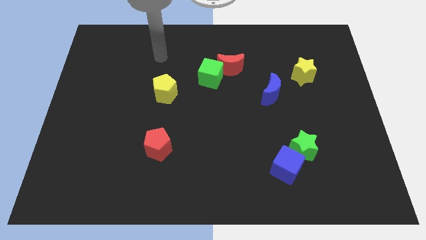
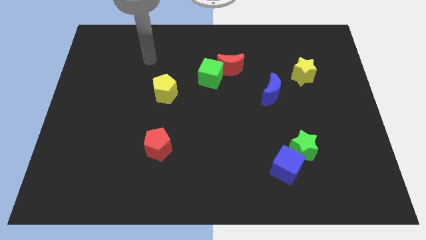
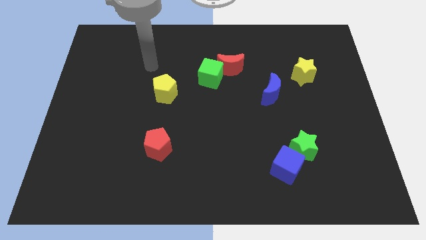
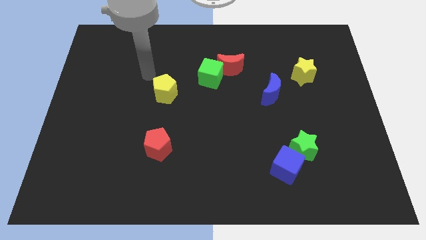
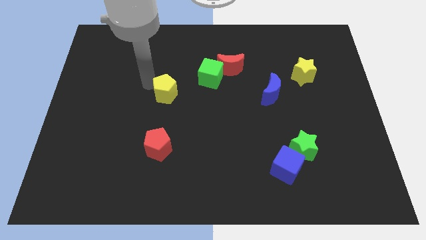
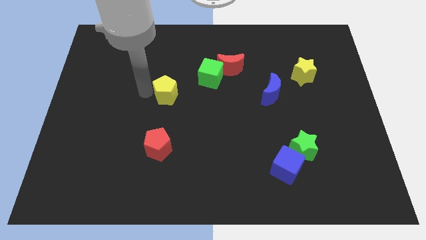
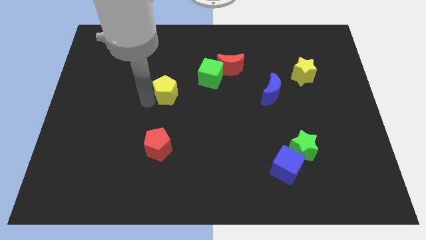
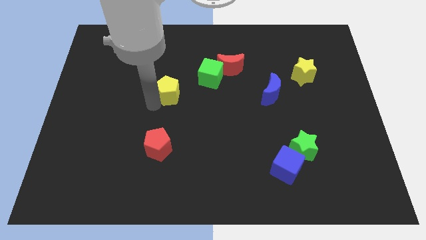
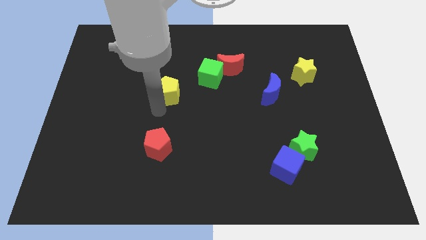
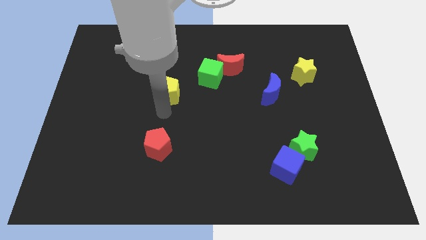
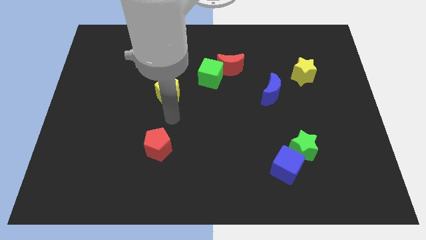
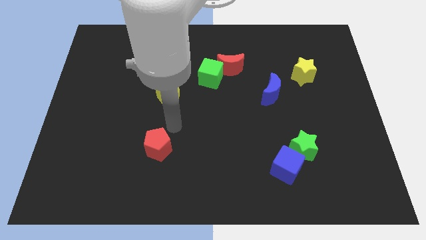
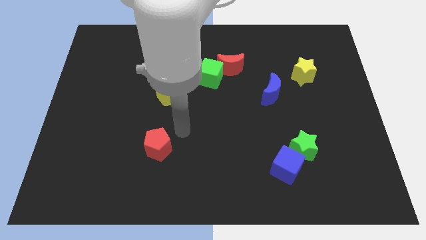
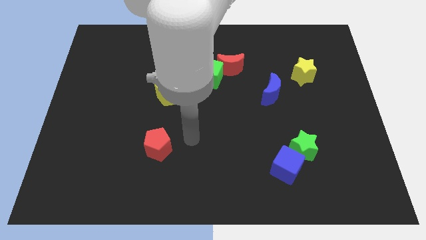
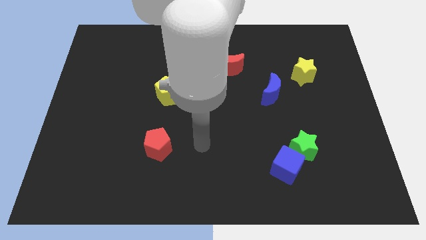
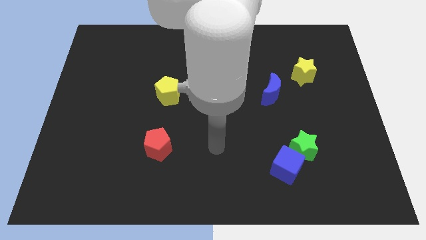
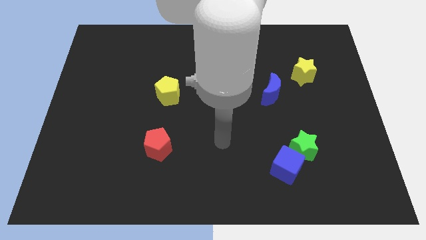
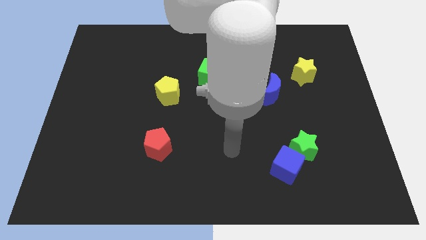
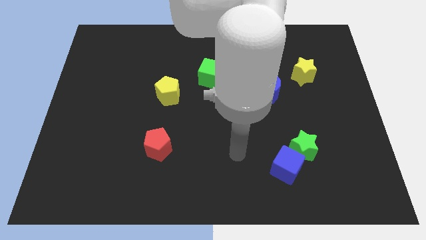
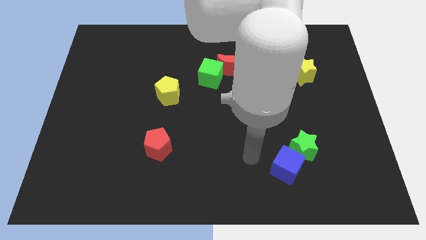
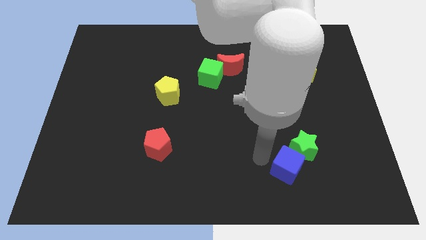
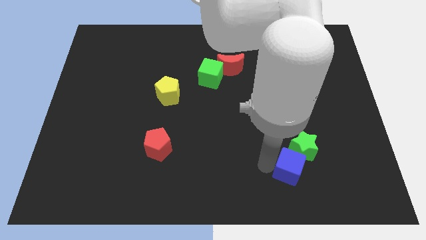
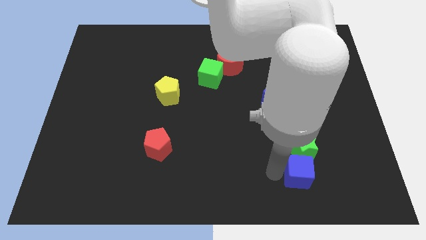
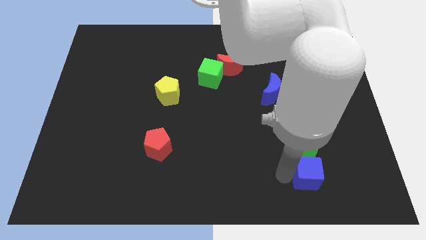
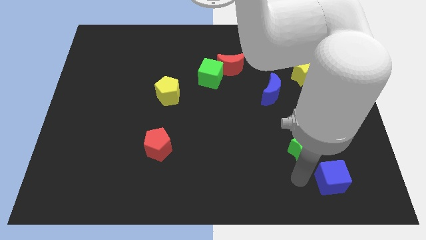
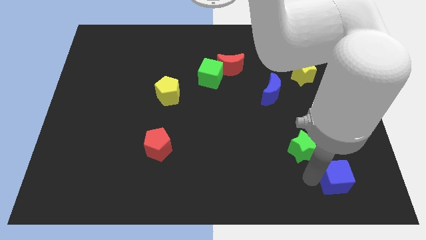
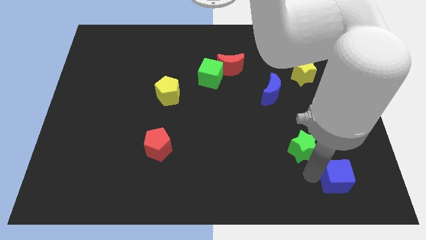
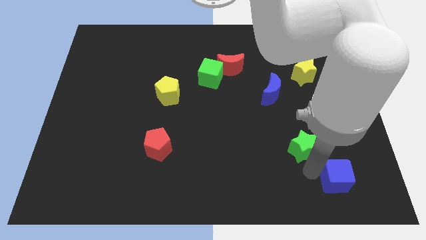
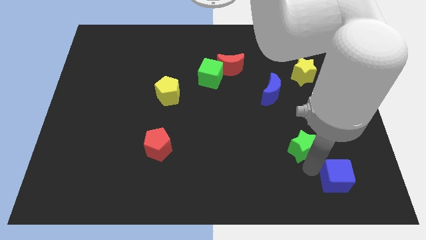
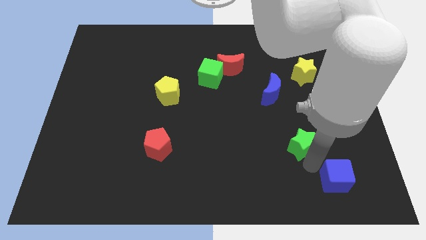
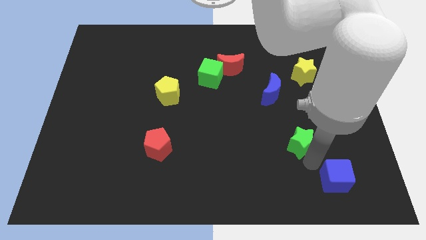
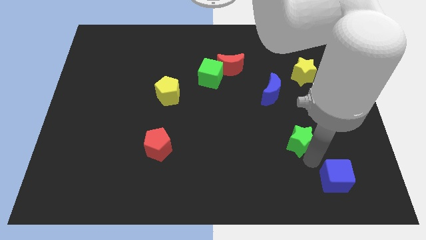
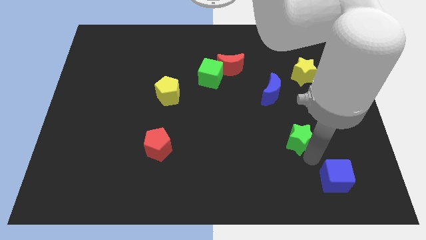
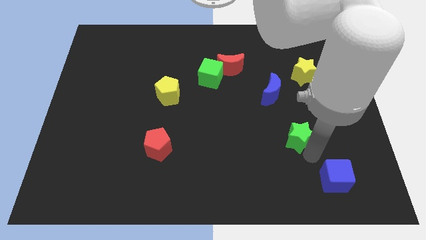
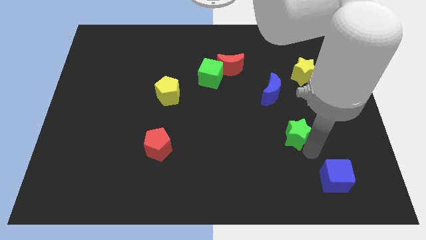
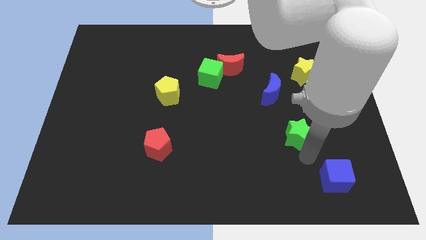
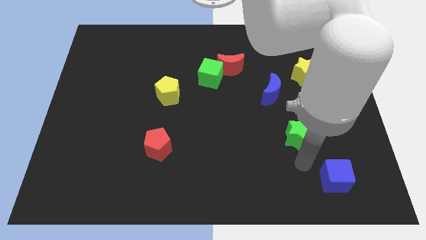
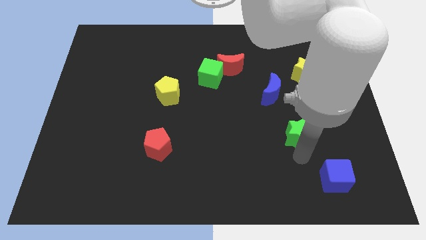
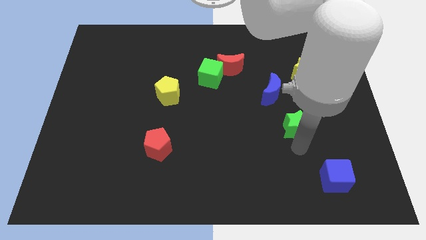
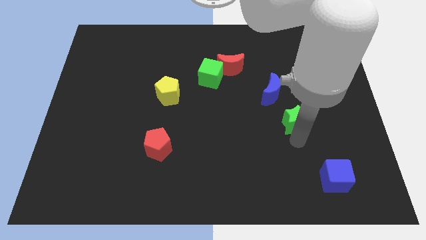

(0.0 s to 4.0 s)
push the green star upwards a little

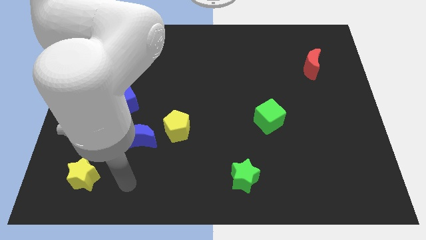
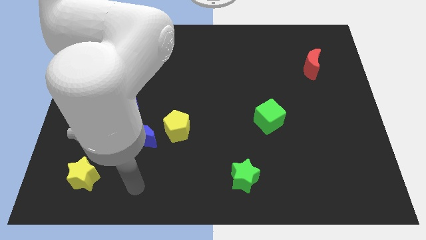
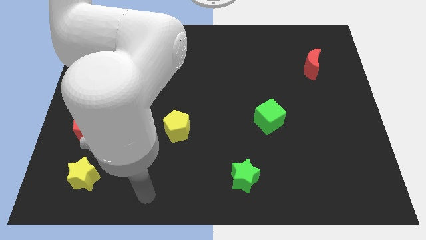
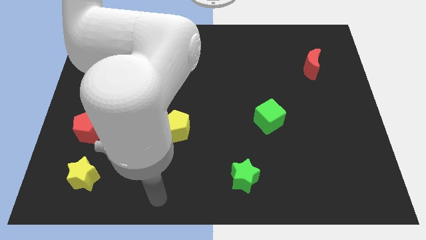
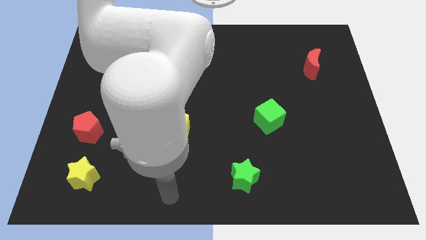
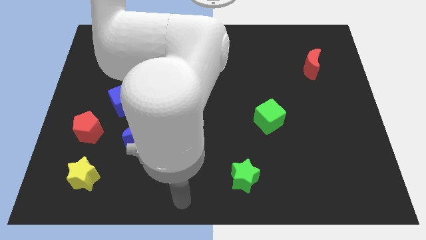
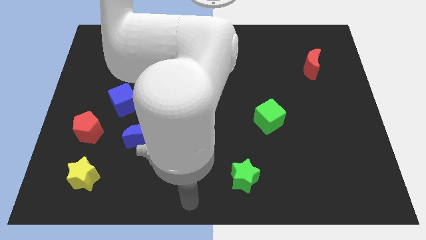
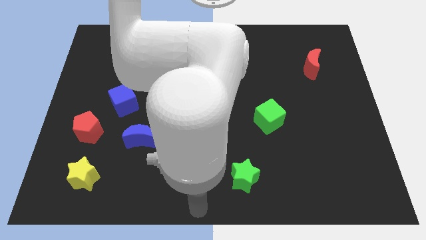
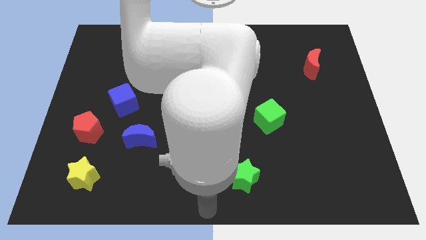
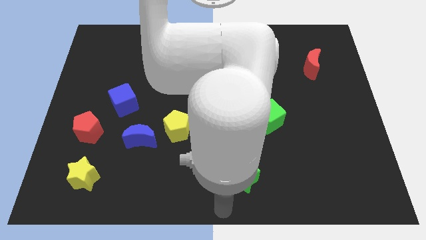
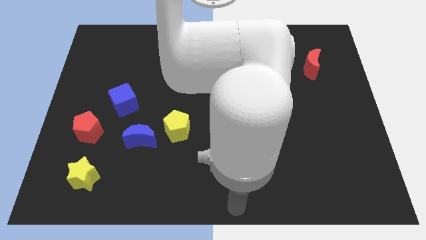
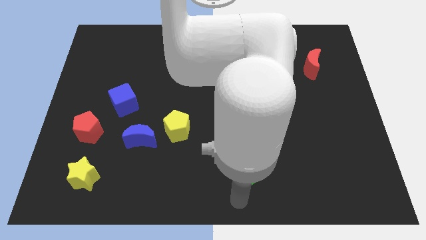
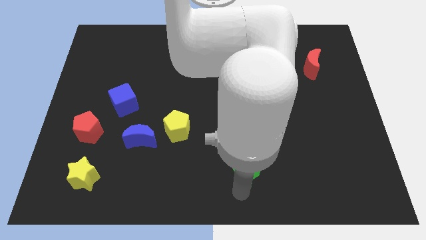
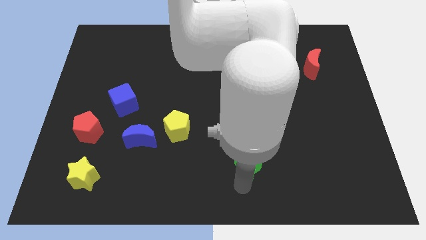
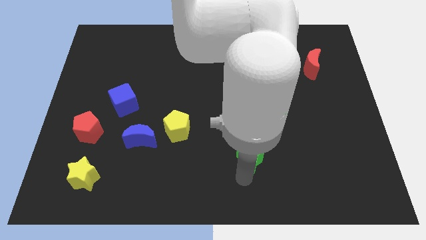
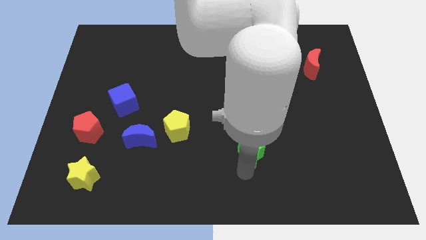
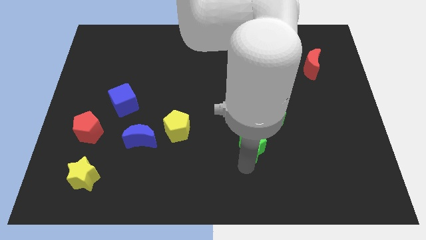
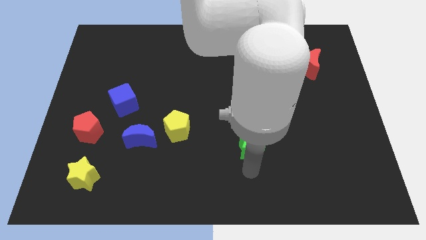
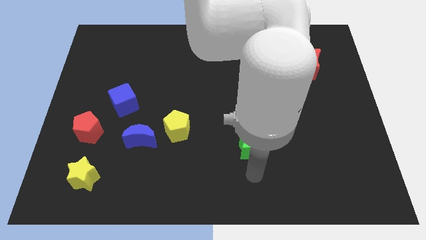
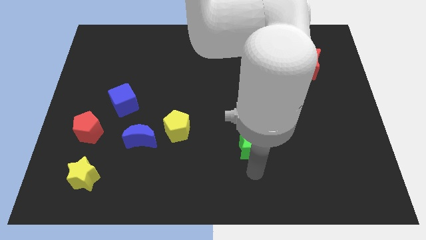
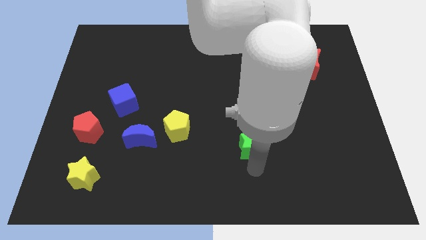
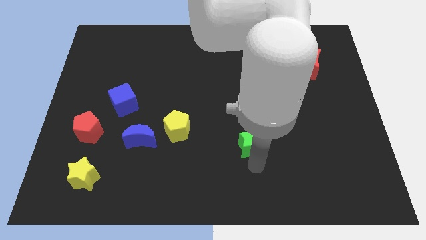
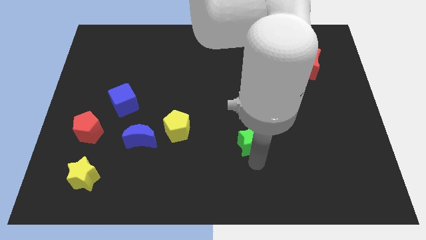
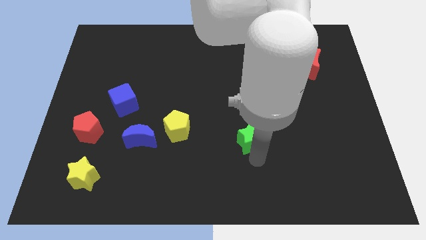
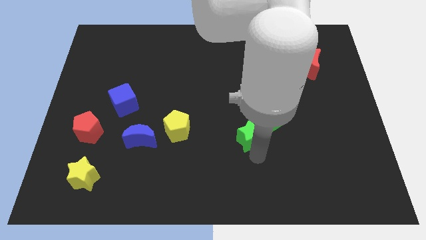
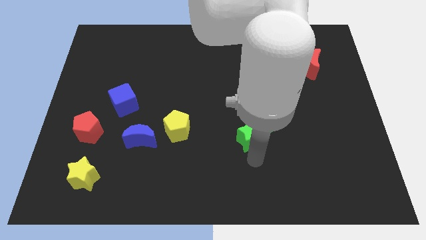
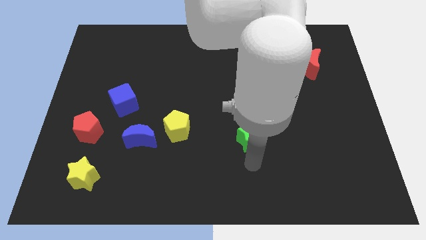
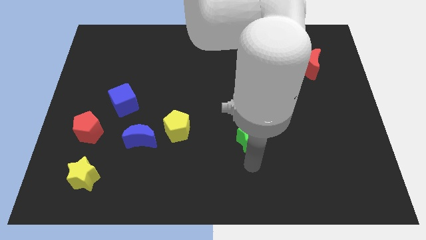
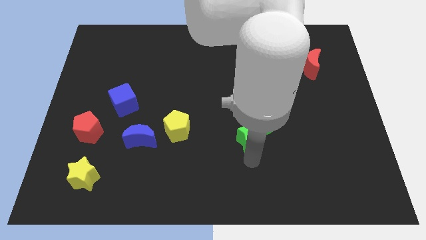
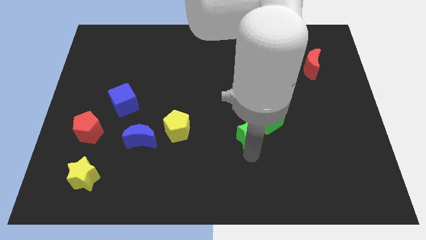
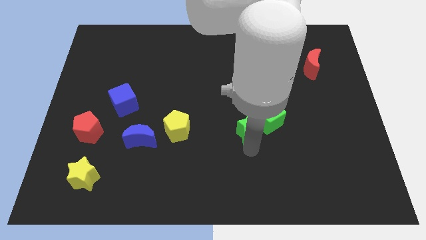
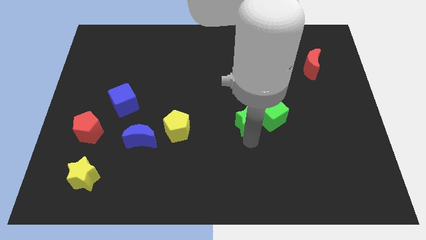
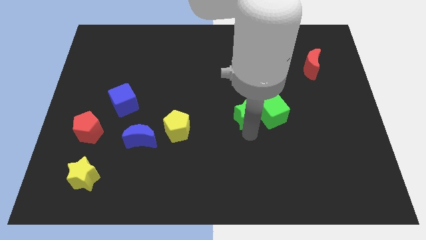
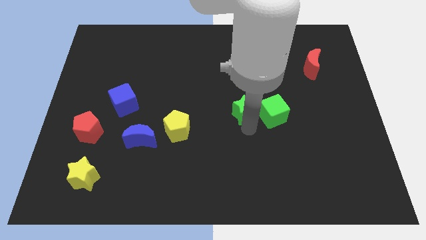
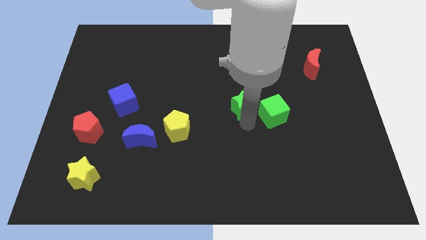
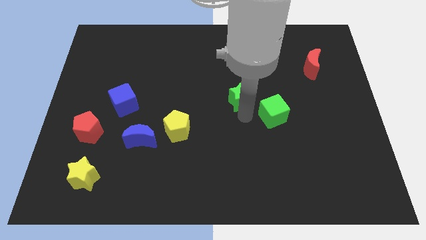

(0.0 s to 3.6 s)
move the green star upwards

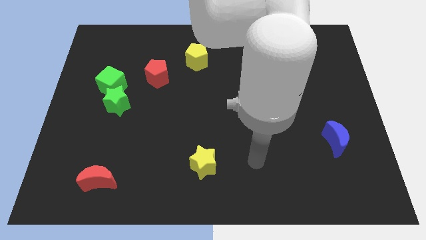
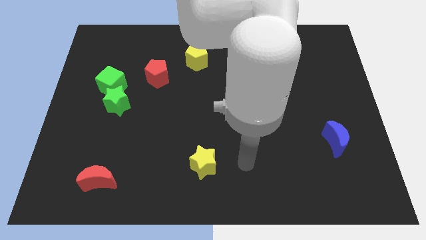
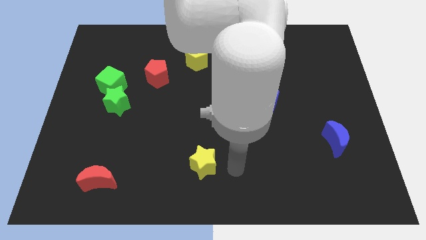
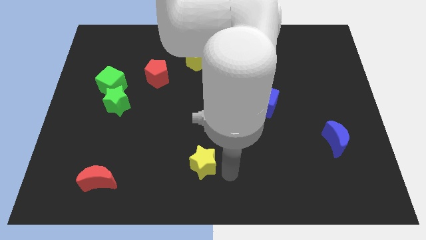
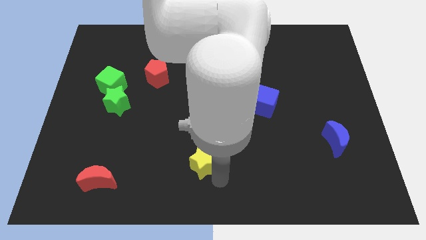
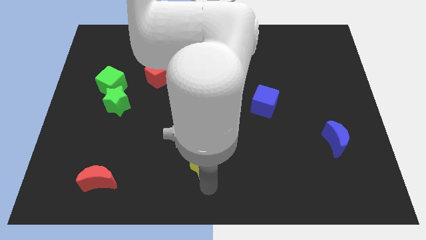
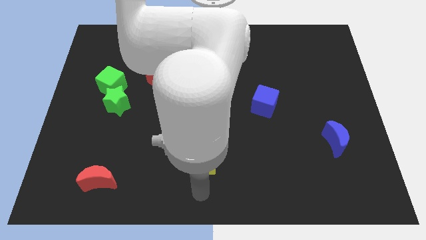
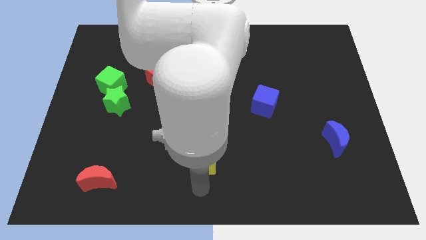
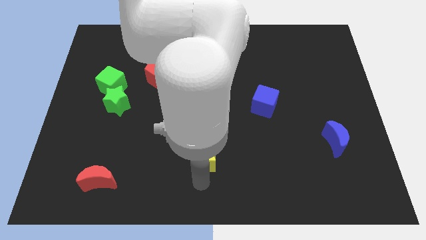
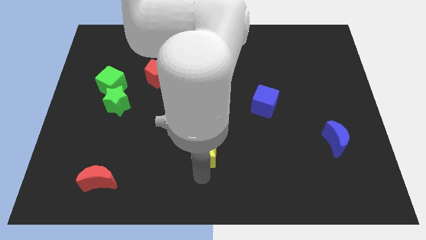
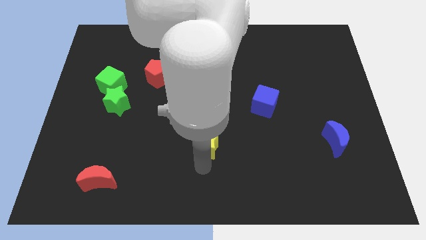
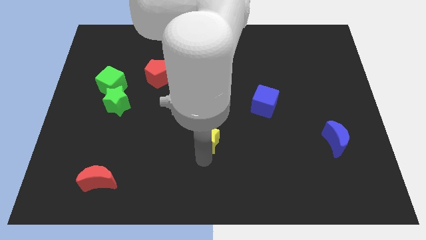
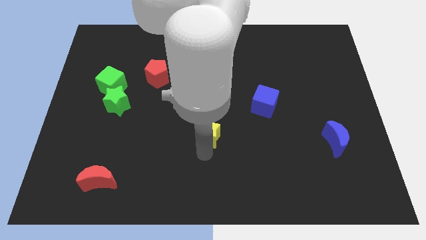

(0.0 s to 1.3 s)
move the yellow star a little up
